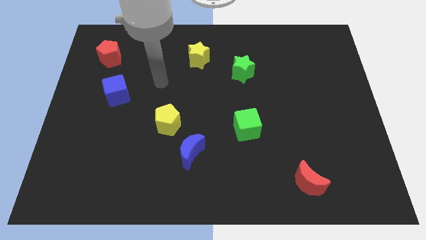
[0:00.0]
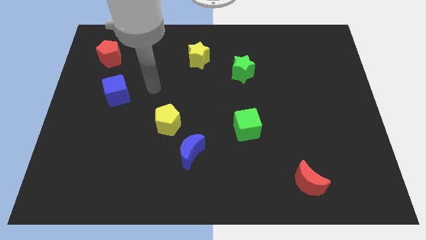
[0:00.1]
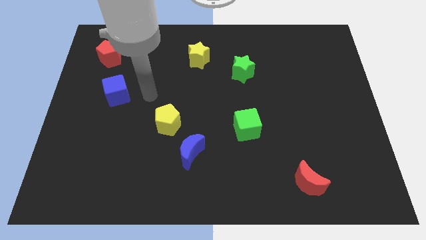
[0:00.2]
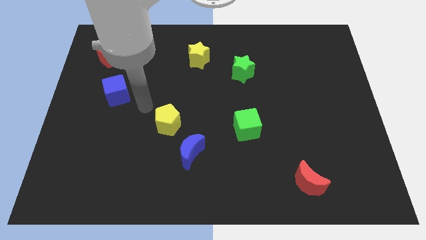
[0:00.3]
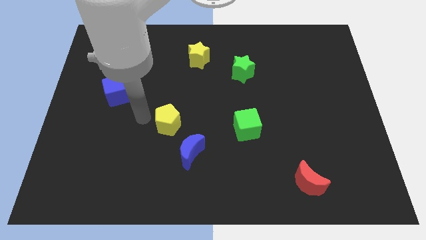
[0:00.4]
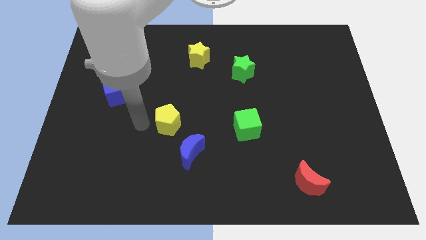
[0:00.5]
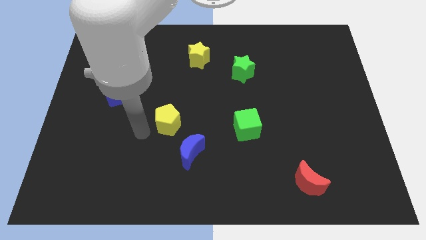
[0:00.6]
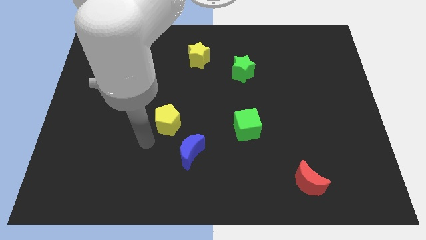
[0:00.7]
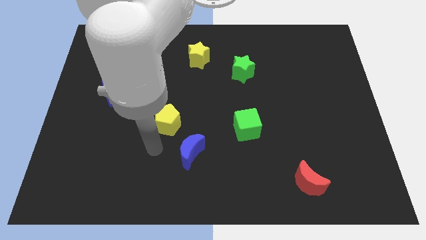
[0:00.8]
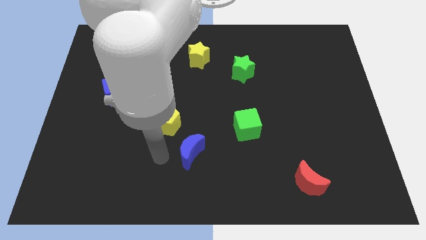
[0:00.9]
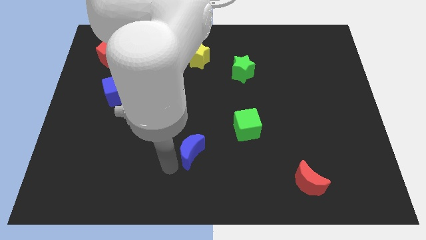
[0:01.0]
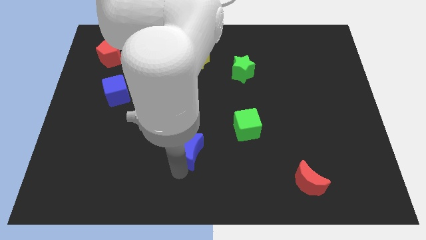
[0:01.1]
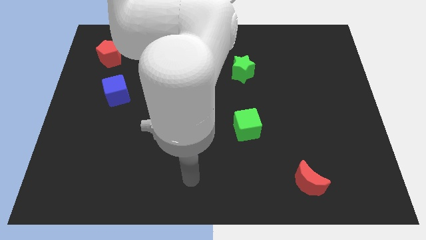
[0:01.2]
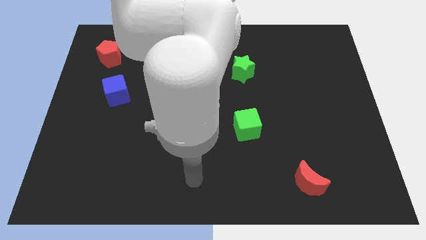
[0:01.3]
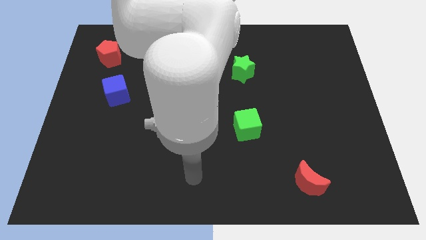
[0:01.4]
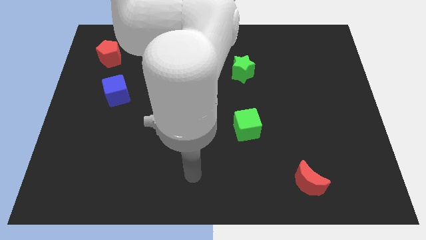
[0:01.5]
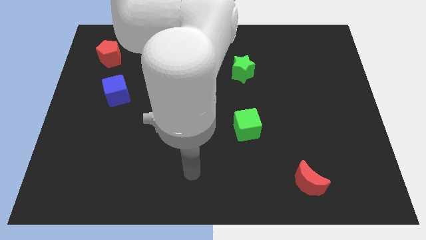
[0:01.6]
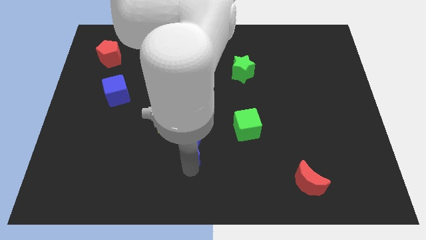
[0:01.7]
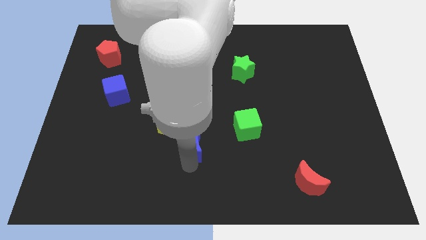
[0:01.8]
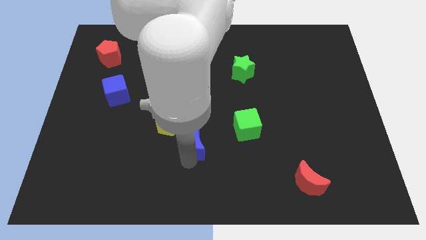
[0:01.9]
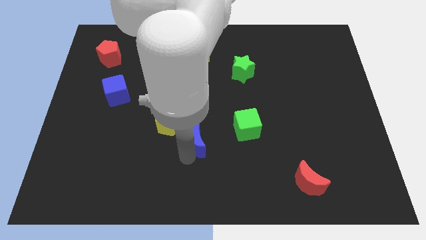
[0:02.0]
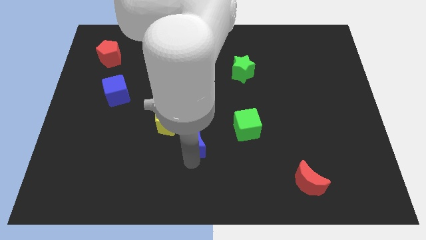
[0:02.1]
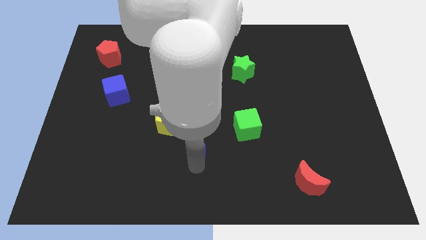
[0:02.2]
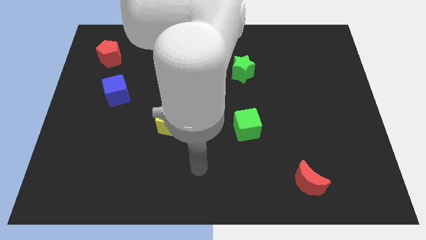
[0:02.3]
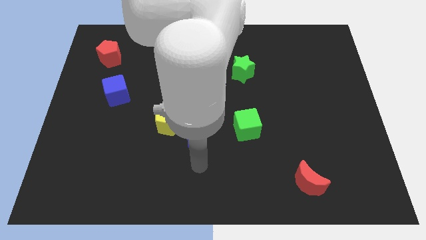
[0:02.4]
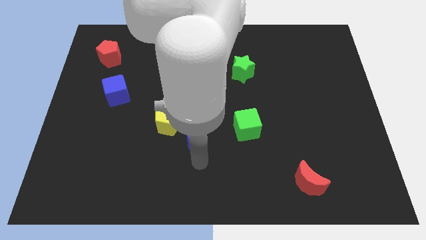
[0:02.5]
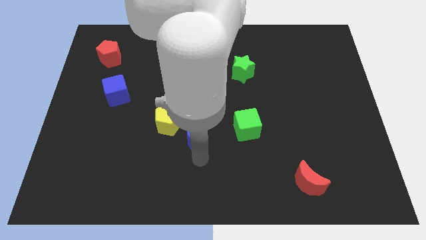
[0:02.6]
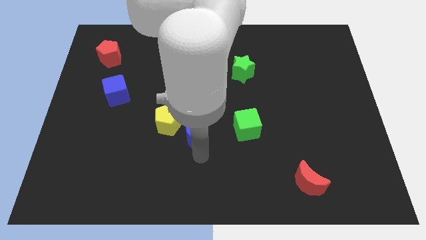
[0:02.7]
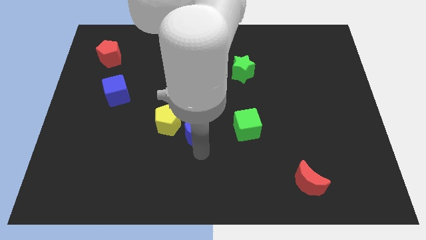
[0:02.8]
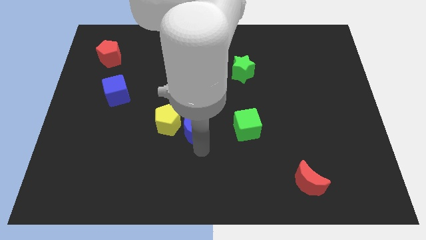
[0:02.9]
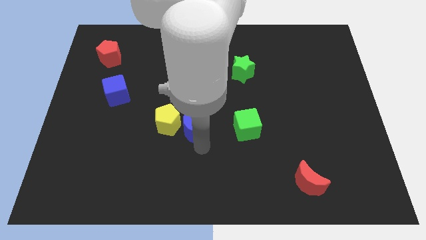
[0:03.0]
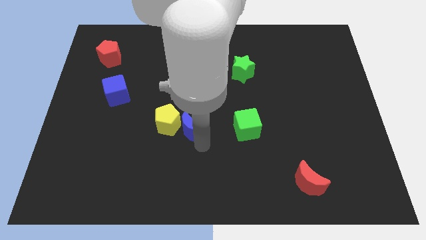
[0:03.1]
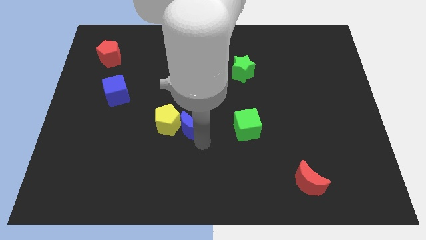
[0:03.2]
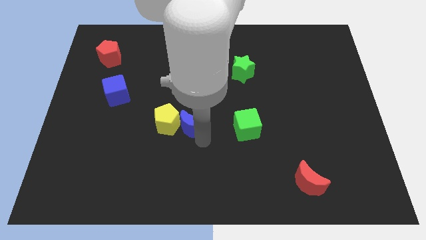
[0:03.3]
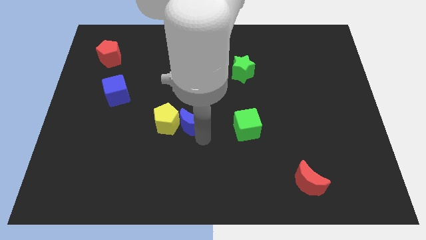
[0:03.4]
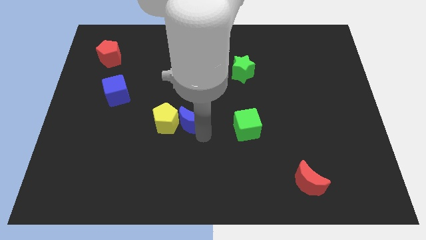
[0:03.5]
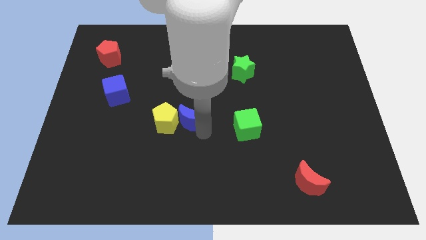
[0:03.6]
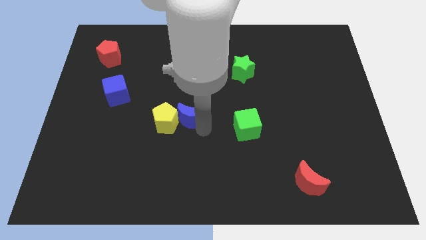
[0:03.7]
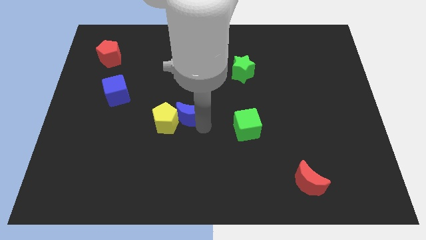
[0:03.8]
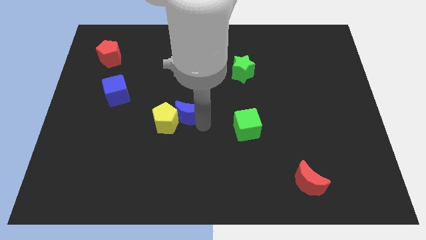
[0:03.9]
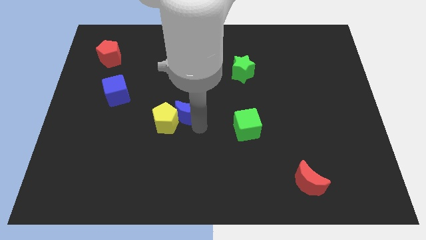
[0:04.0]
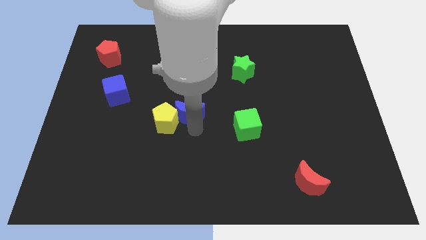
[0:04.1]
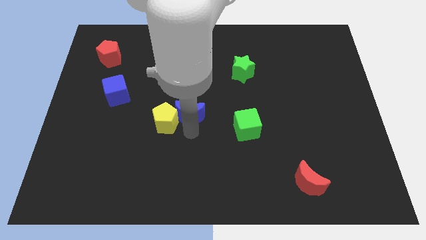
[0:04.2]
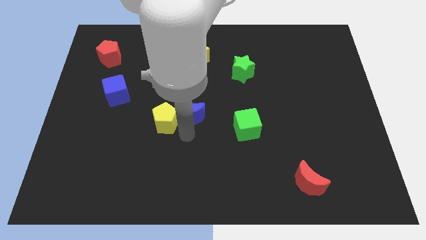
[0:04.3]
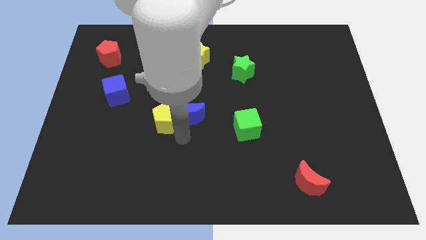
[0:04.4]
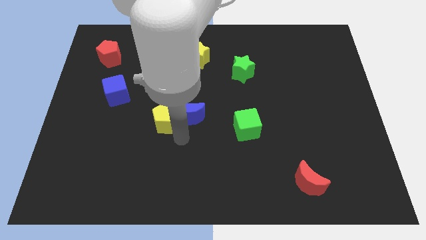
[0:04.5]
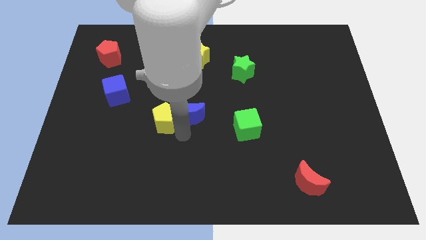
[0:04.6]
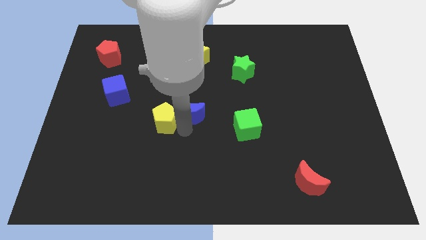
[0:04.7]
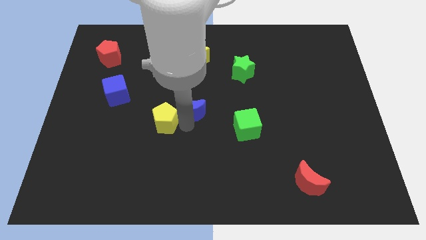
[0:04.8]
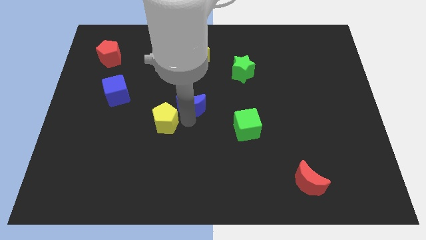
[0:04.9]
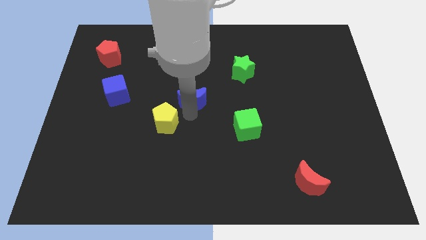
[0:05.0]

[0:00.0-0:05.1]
move the blue moon below the yellow star

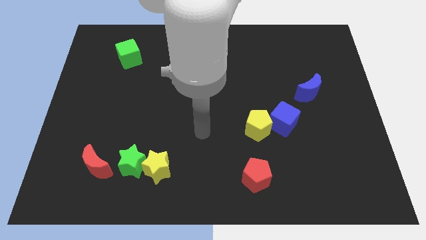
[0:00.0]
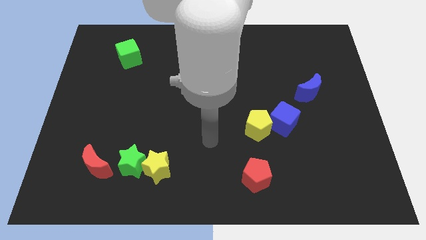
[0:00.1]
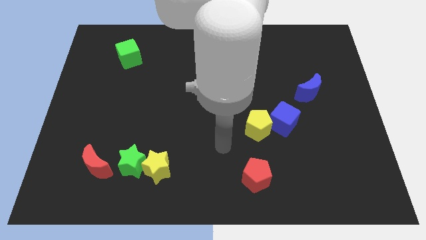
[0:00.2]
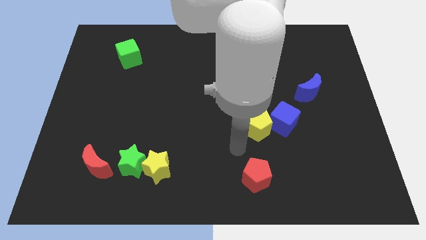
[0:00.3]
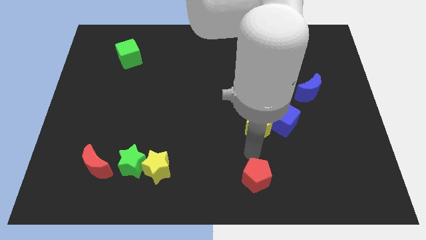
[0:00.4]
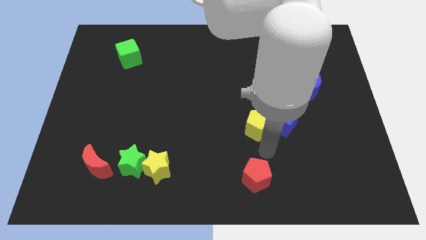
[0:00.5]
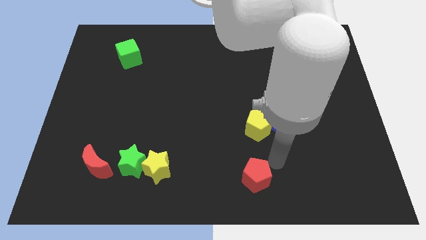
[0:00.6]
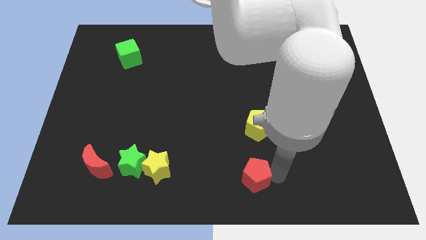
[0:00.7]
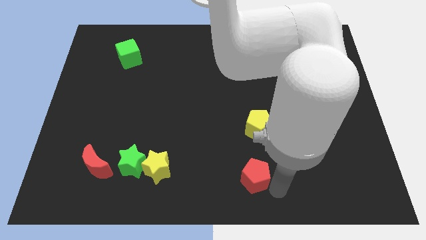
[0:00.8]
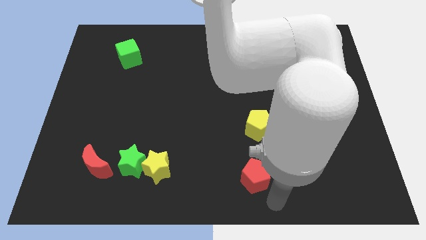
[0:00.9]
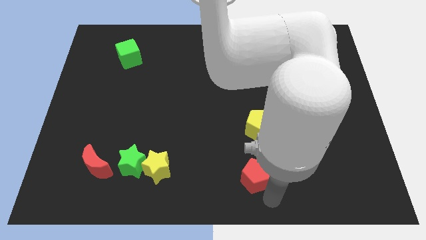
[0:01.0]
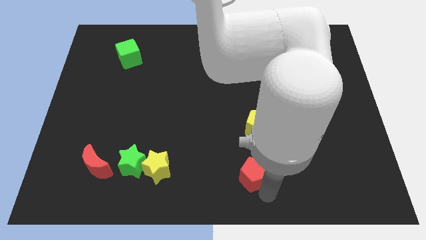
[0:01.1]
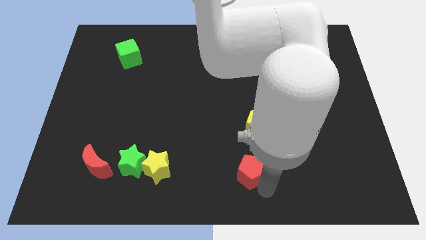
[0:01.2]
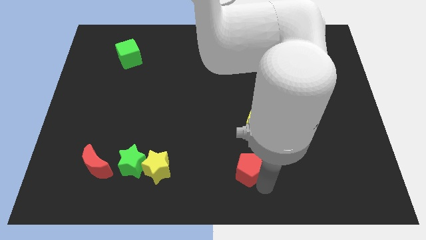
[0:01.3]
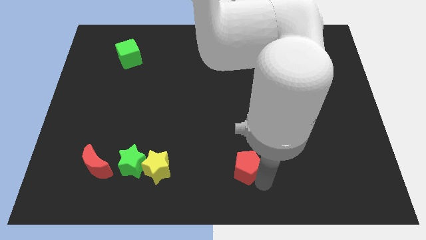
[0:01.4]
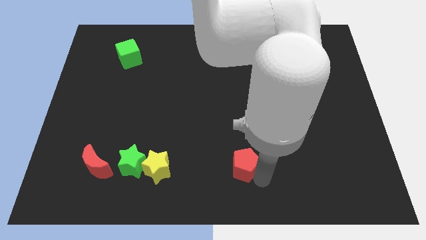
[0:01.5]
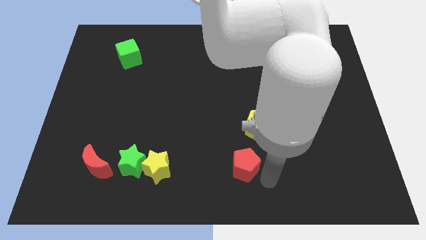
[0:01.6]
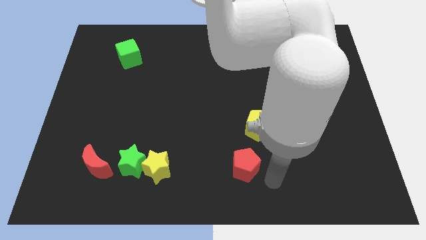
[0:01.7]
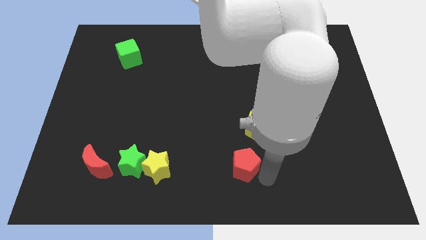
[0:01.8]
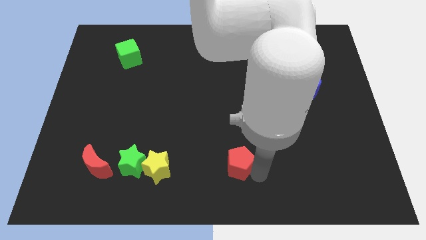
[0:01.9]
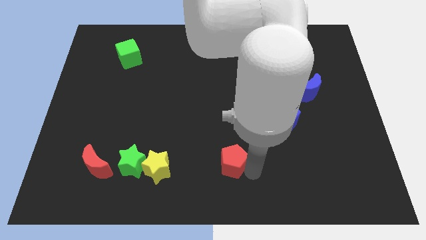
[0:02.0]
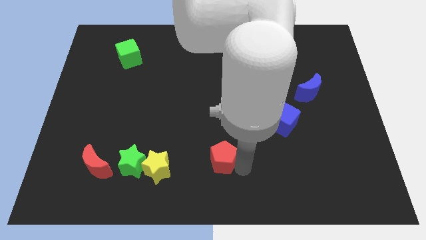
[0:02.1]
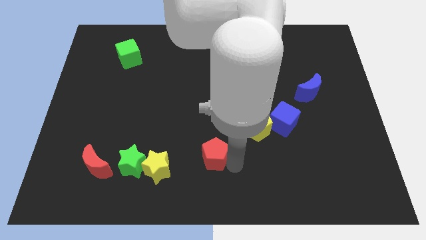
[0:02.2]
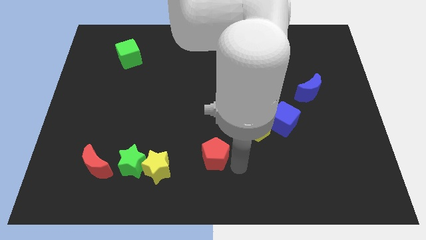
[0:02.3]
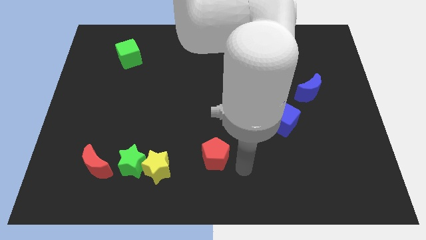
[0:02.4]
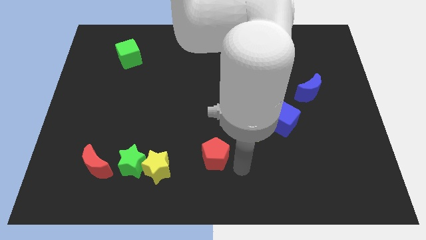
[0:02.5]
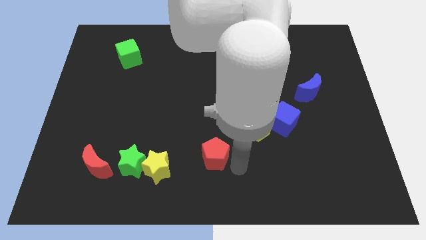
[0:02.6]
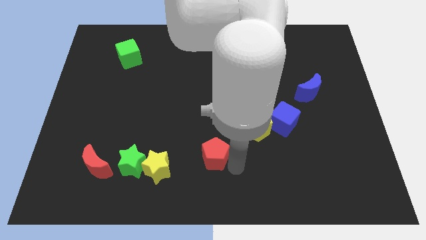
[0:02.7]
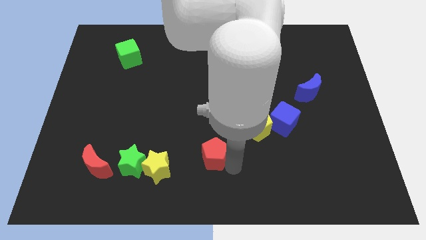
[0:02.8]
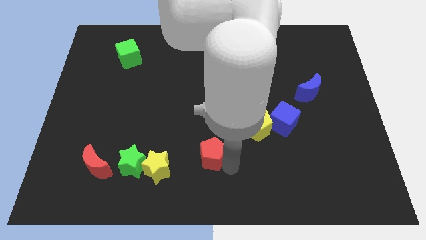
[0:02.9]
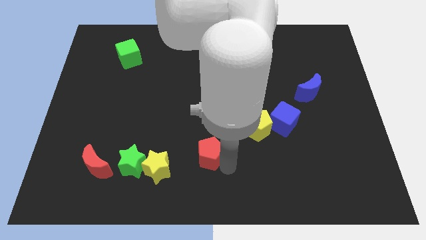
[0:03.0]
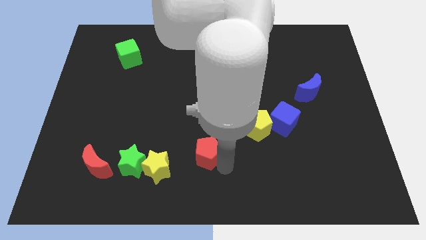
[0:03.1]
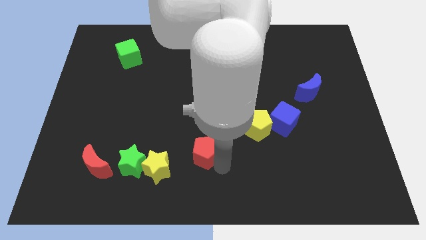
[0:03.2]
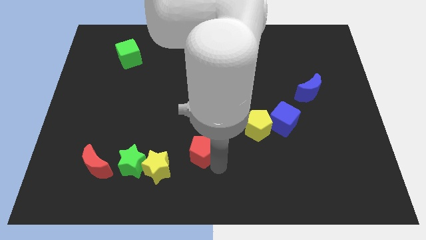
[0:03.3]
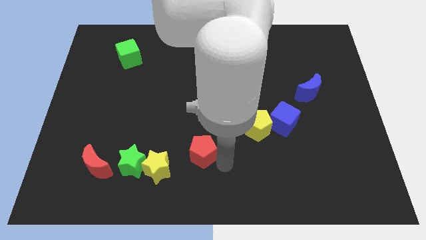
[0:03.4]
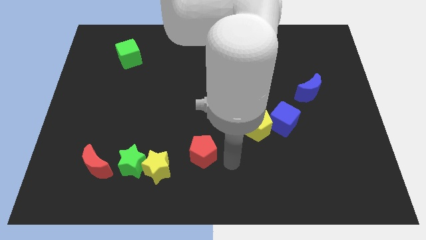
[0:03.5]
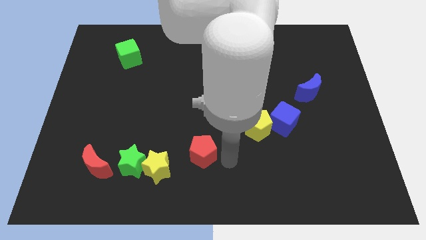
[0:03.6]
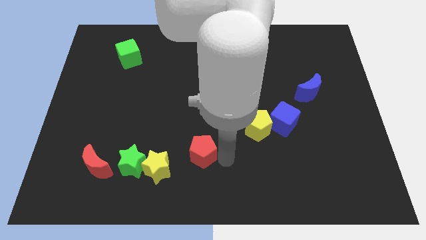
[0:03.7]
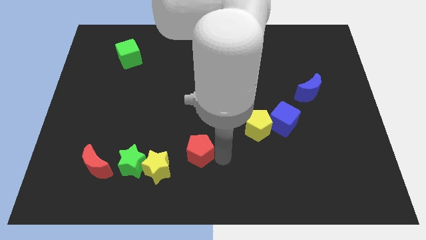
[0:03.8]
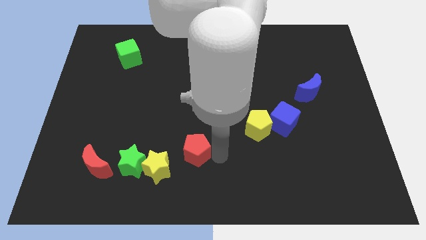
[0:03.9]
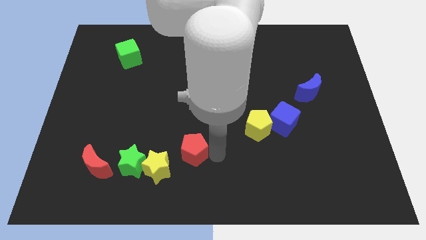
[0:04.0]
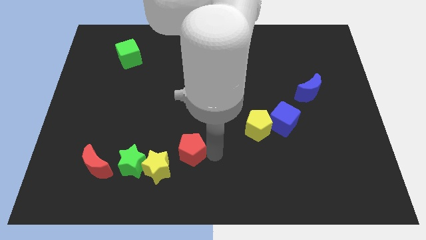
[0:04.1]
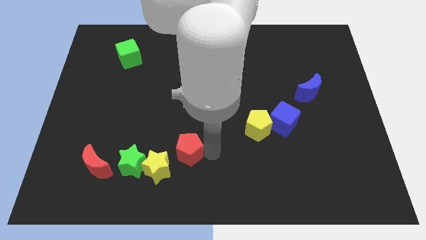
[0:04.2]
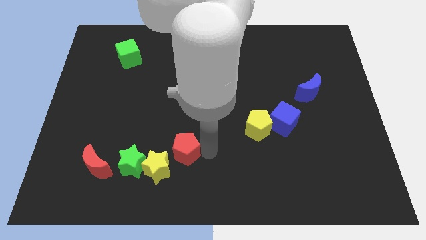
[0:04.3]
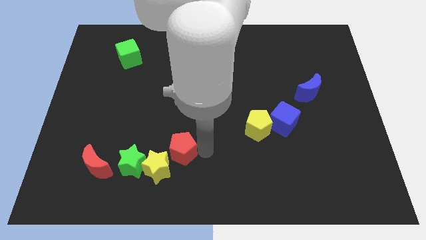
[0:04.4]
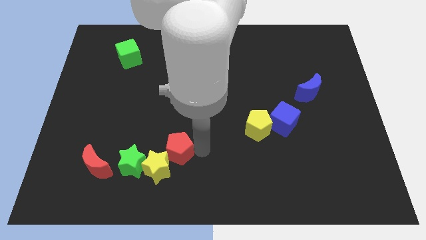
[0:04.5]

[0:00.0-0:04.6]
push the red pentagon to the top right of the green star
